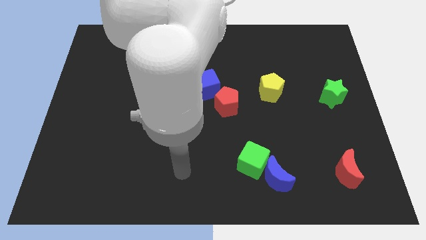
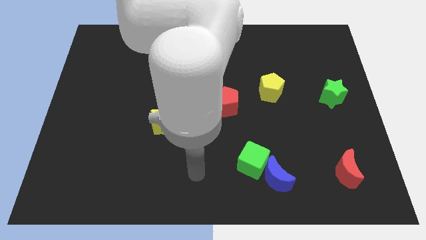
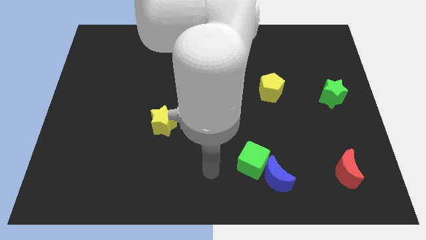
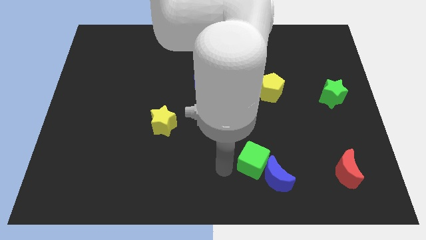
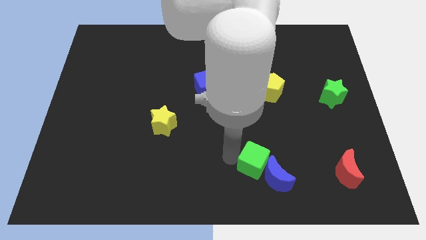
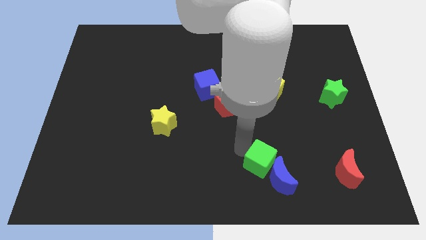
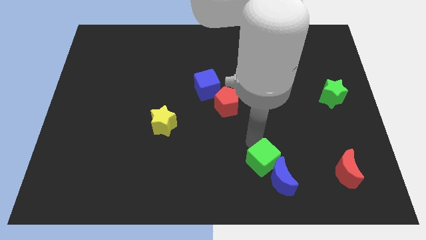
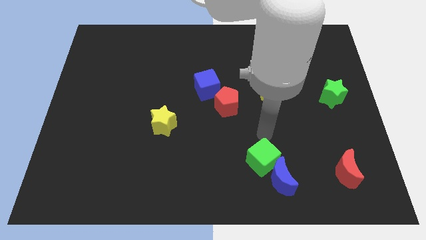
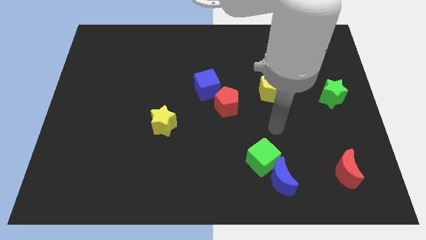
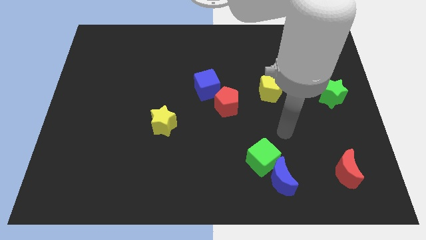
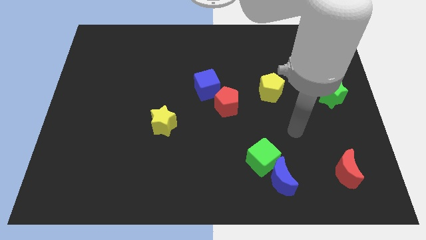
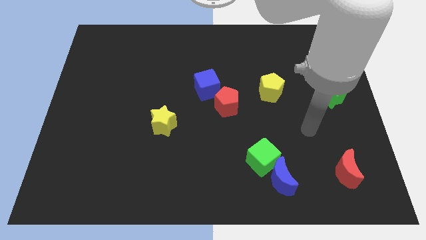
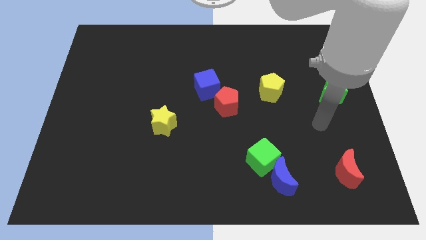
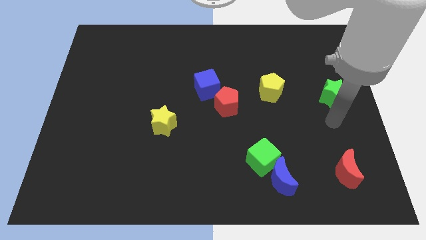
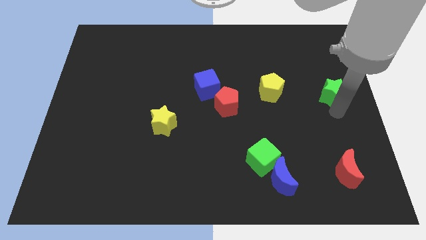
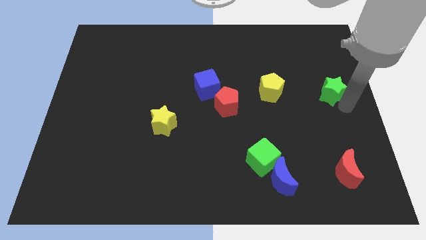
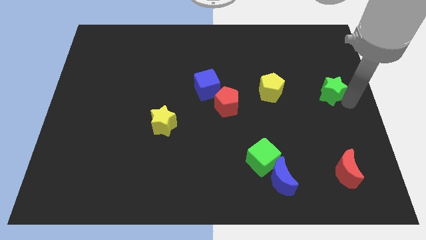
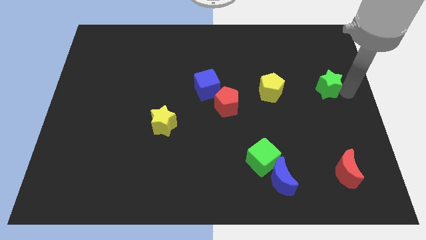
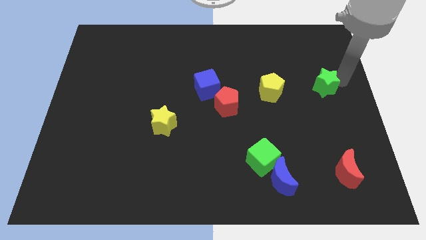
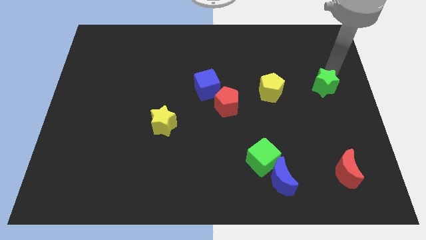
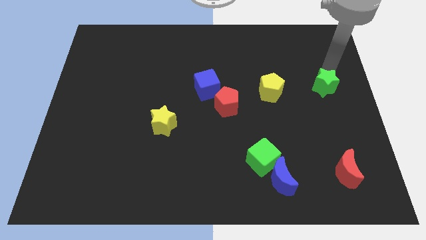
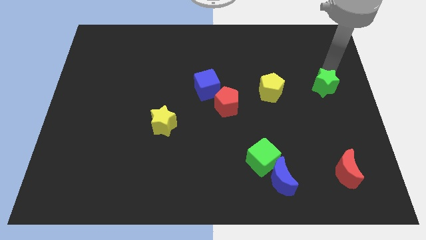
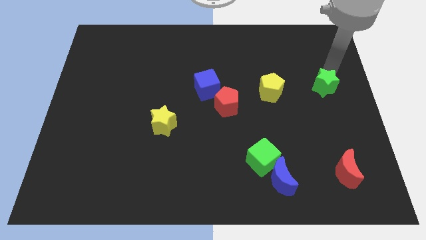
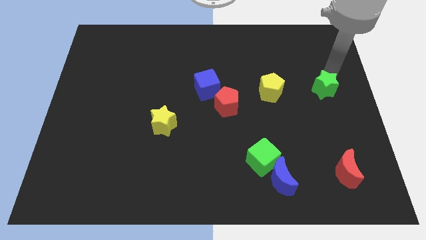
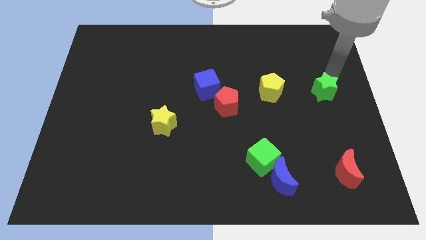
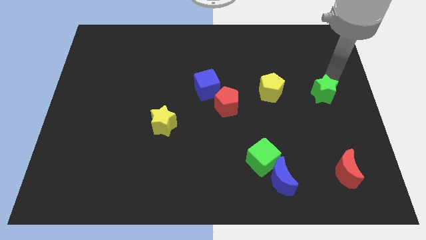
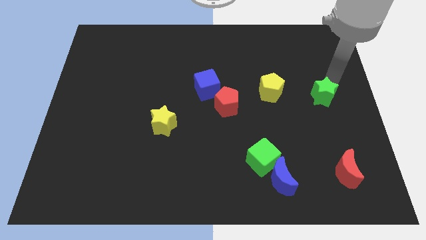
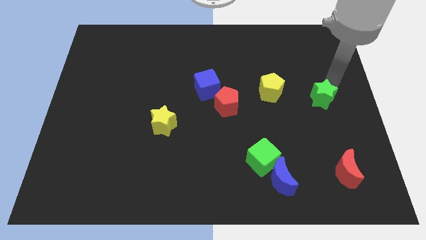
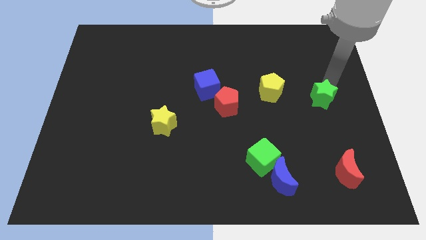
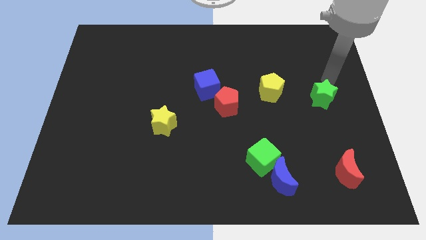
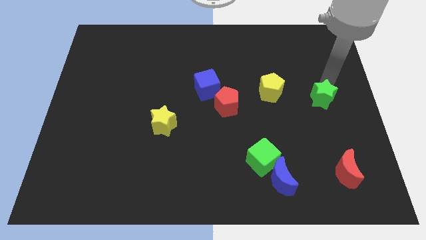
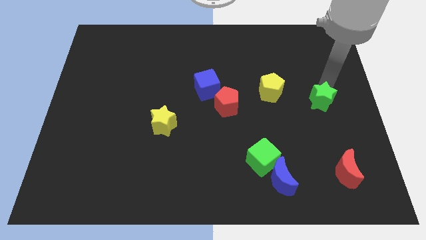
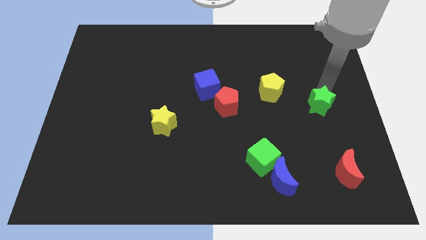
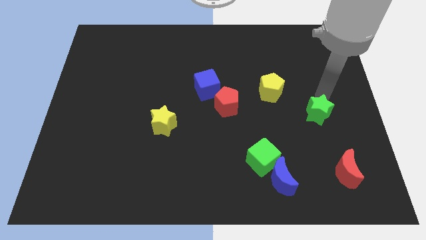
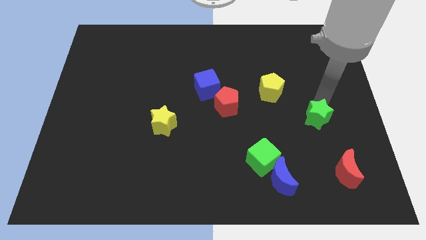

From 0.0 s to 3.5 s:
move the green star somewhat downwards and then left

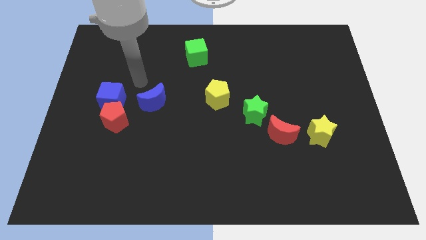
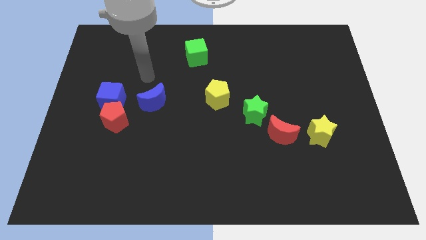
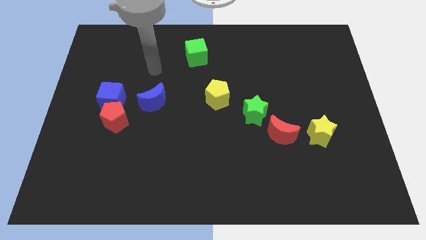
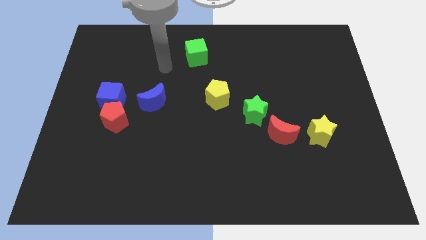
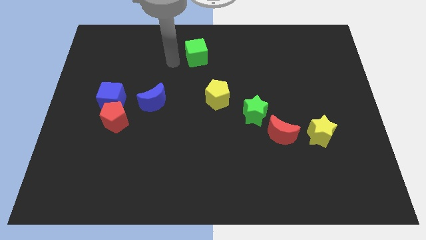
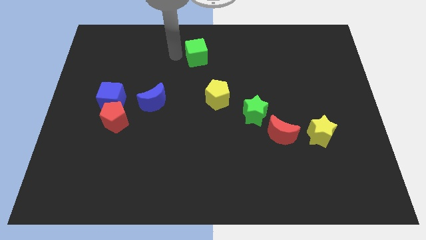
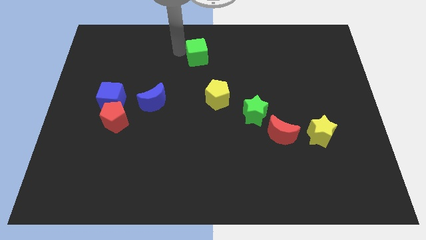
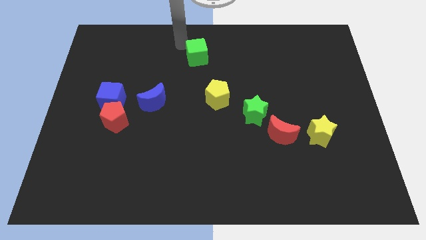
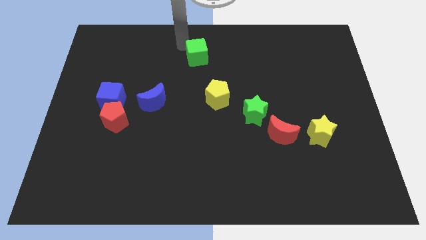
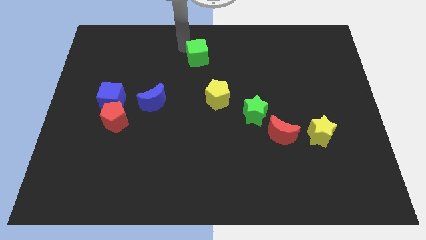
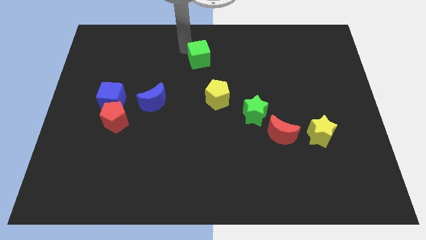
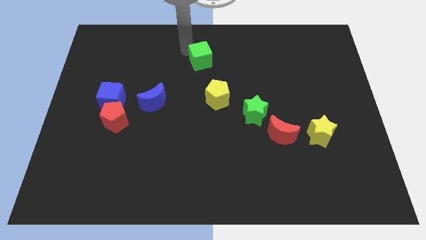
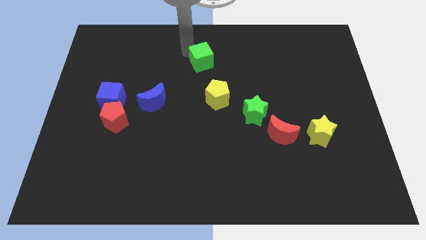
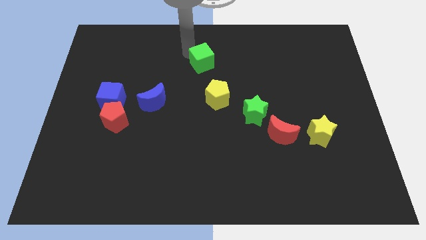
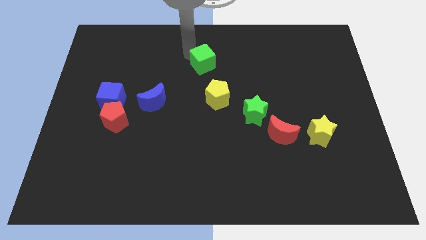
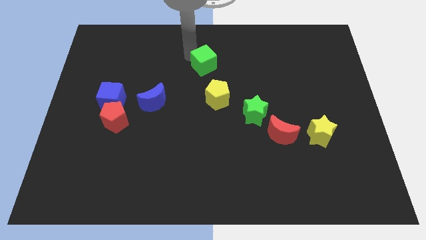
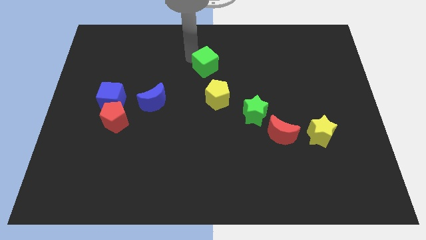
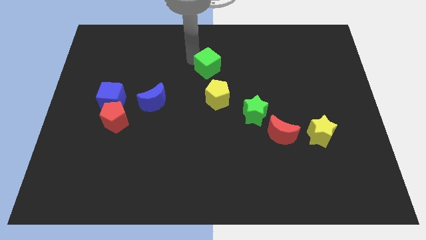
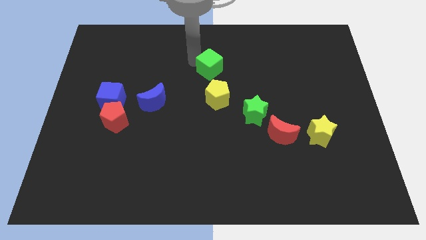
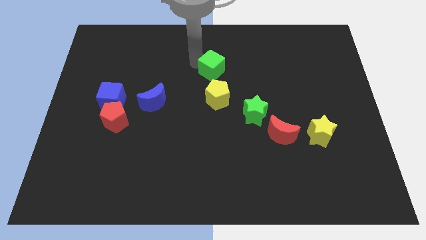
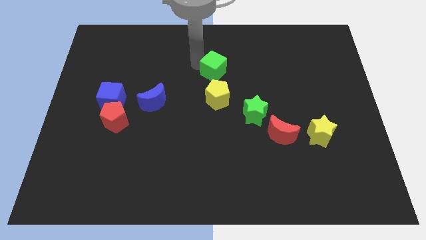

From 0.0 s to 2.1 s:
move the green cube diagonally downwards and to the right slightly

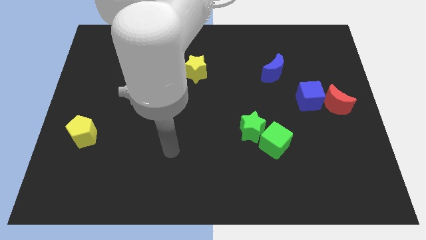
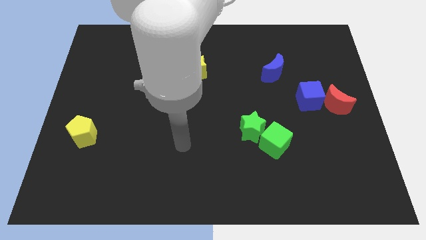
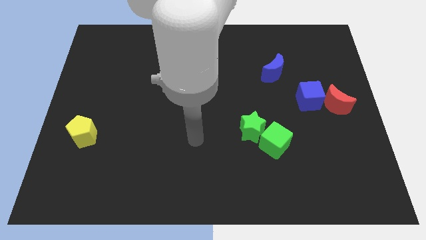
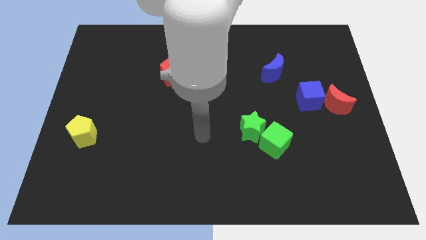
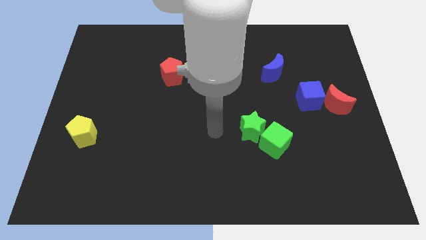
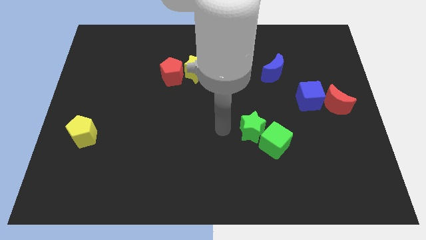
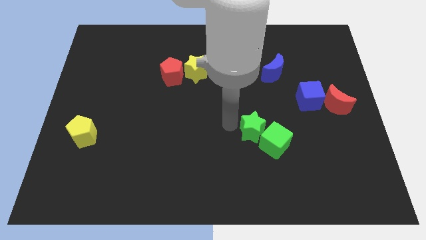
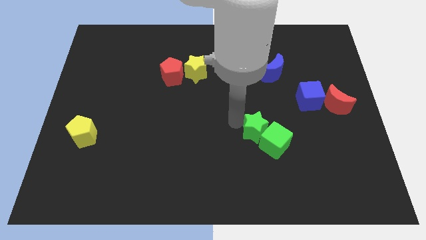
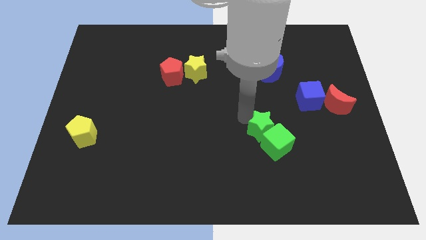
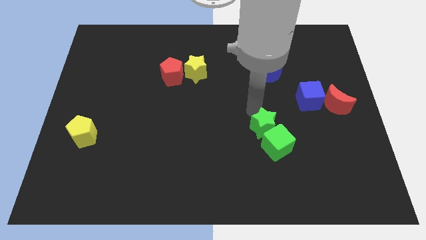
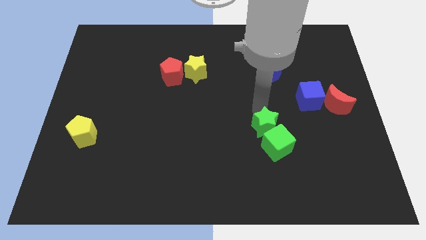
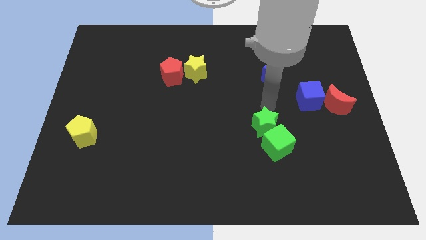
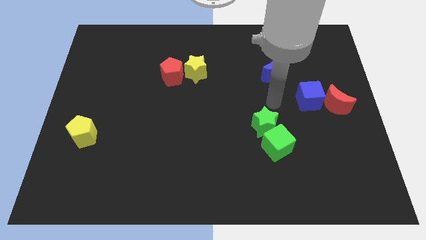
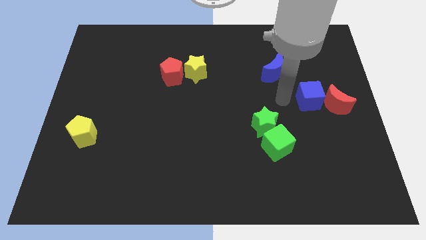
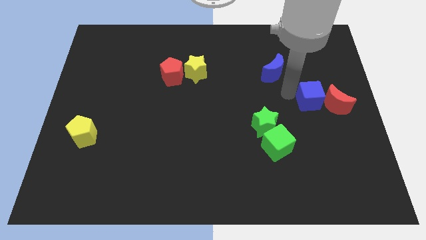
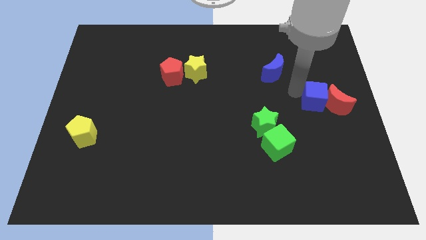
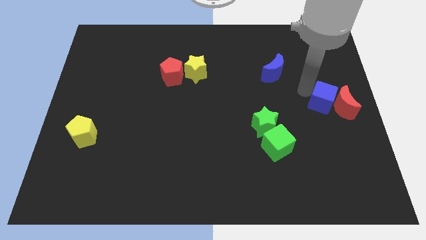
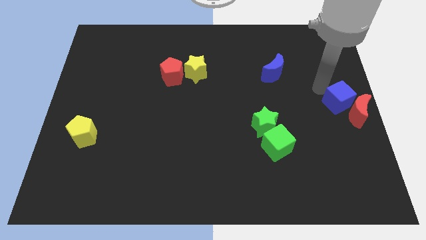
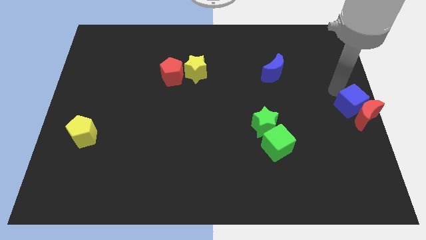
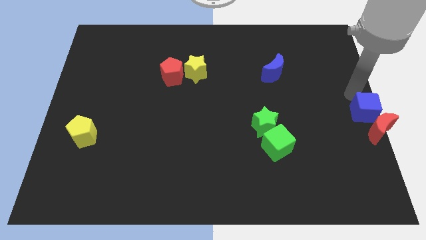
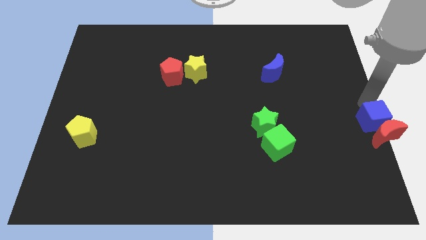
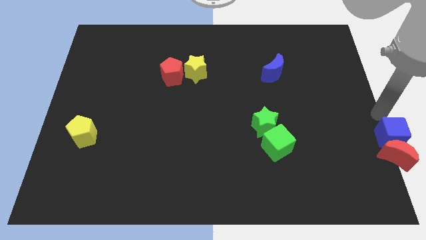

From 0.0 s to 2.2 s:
push the red moon somewhat down

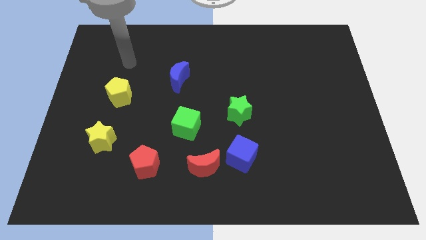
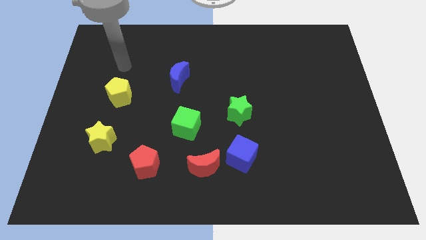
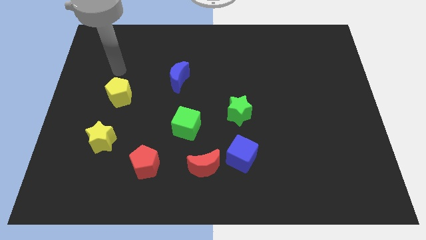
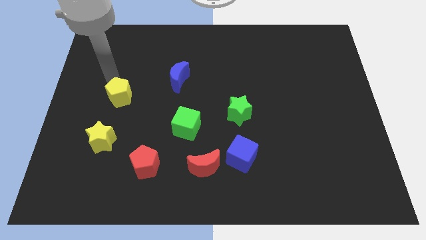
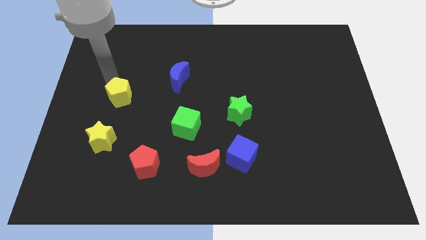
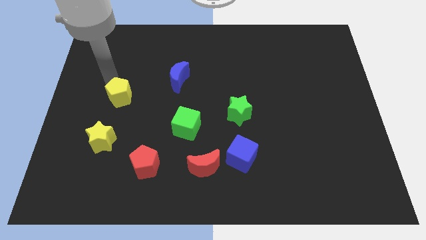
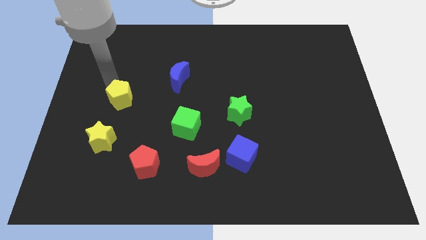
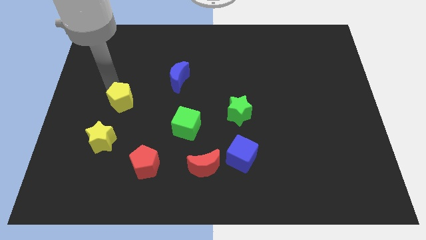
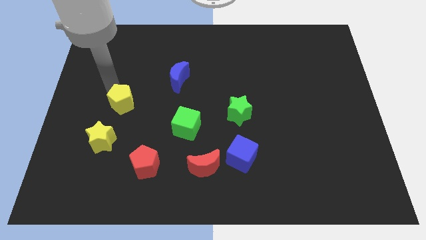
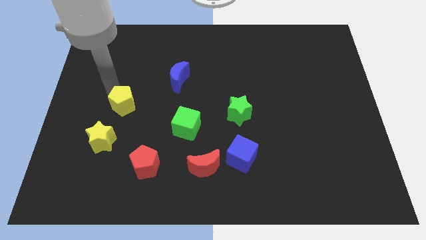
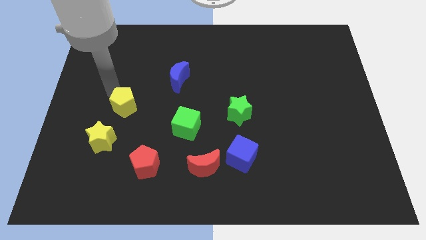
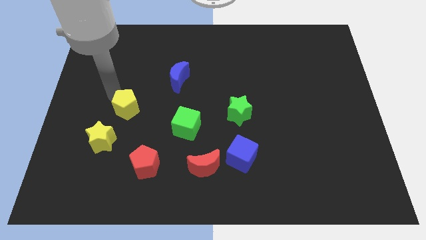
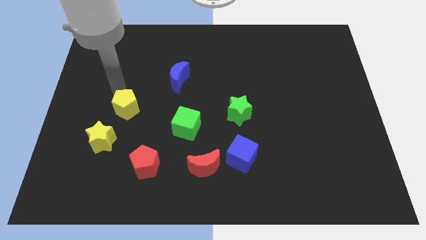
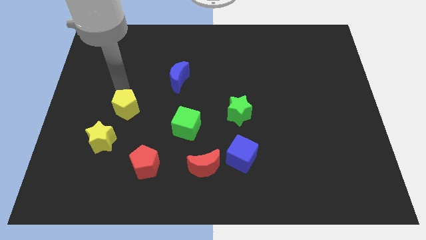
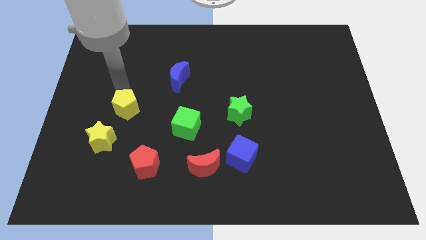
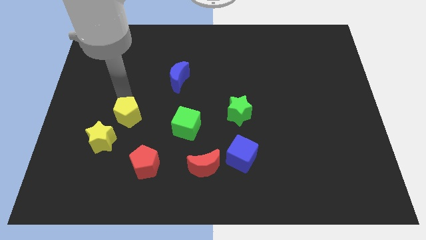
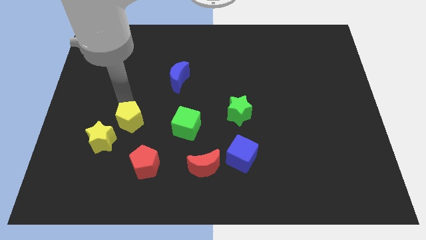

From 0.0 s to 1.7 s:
push the yellow pentagon downwards a little
